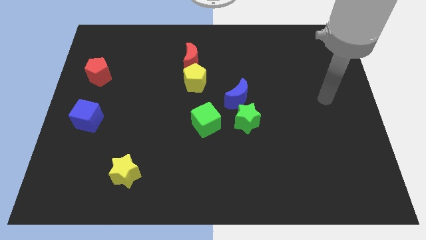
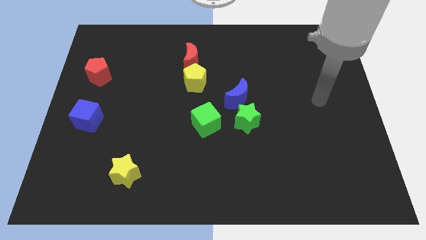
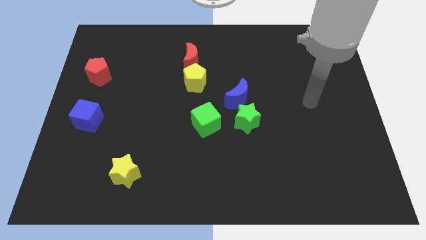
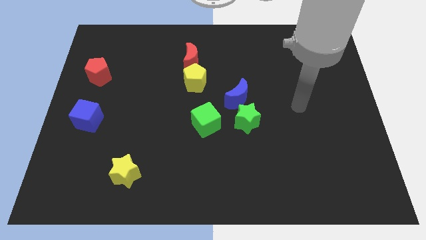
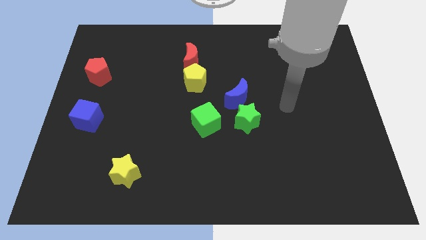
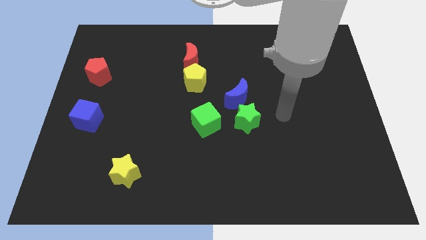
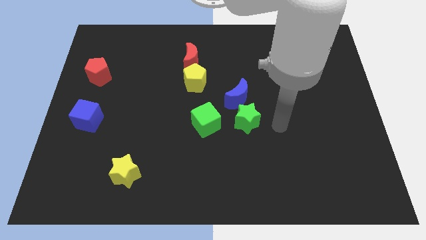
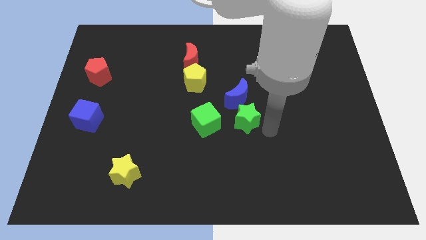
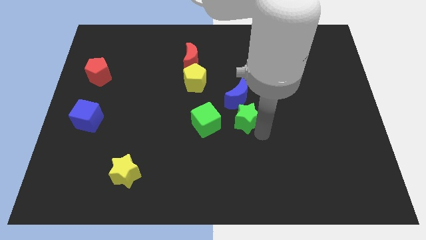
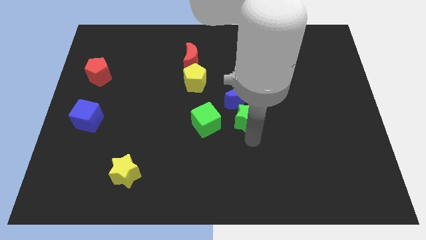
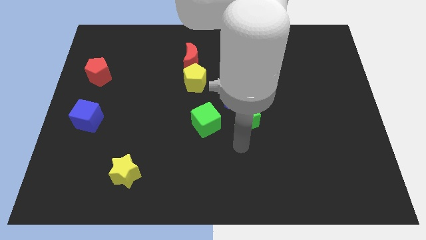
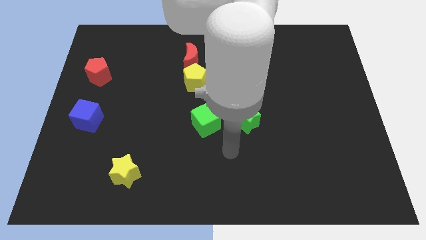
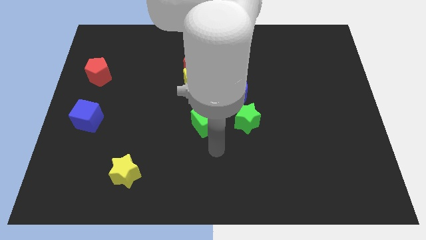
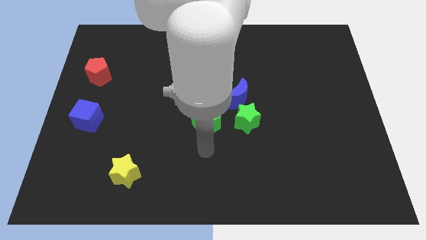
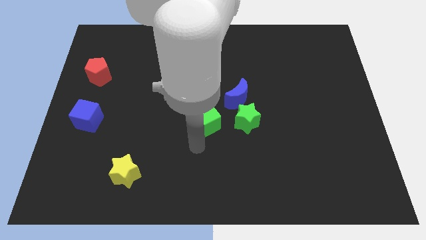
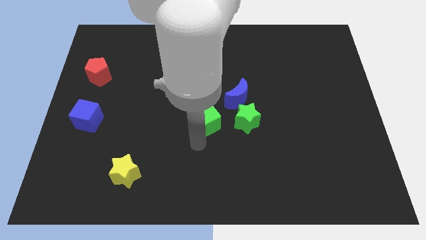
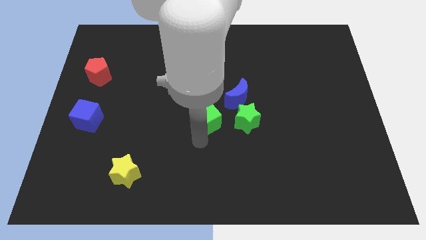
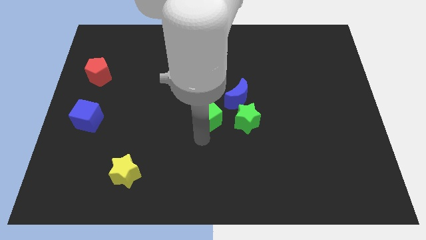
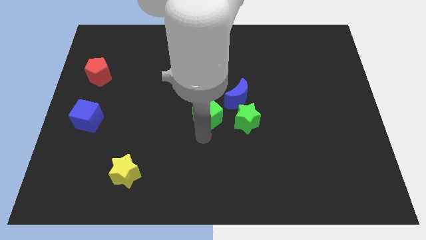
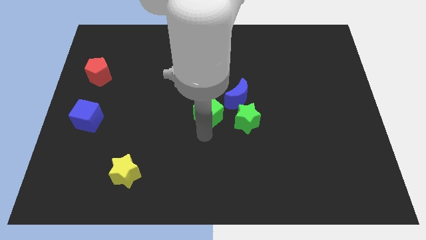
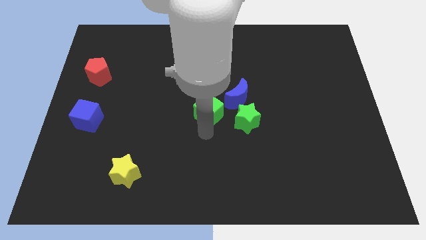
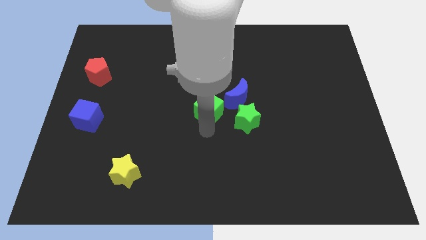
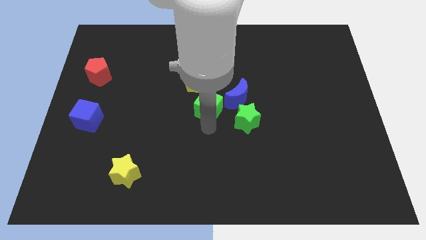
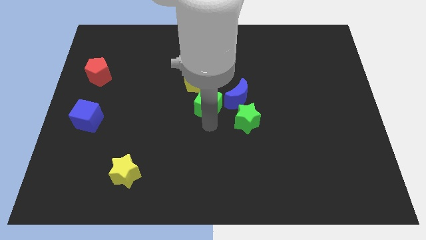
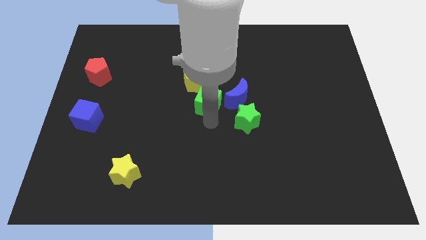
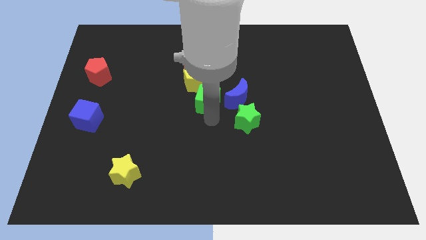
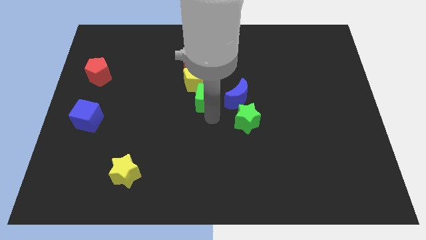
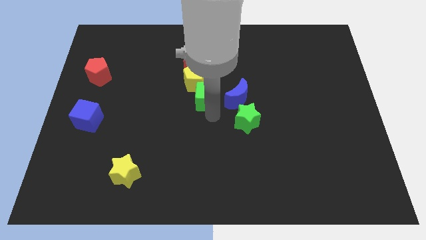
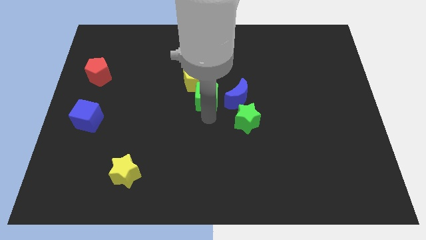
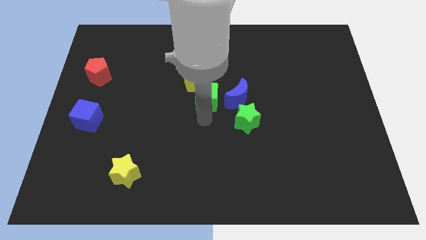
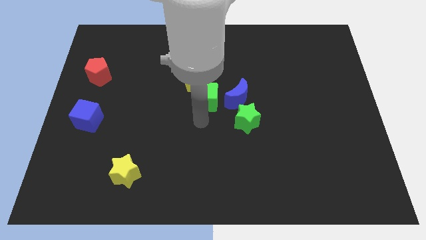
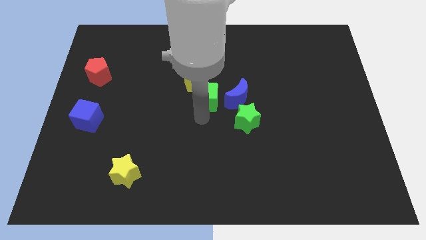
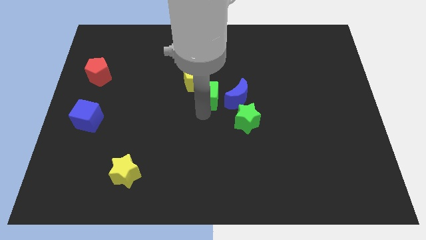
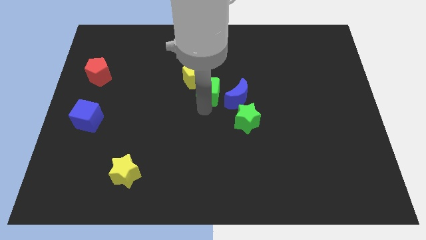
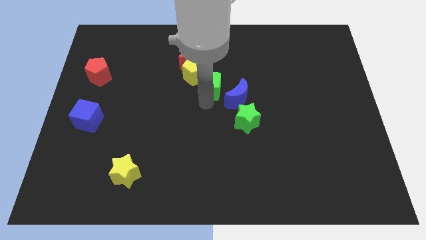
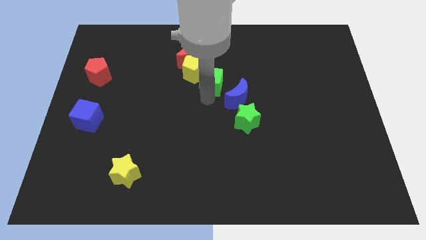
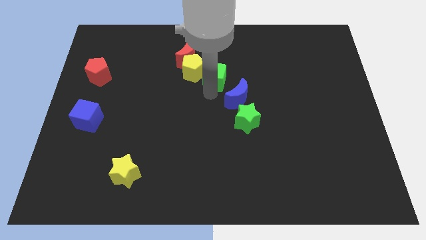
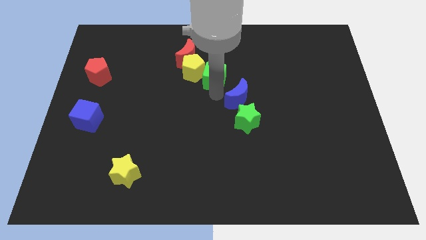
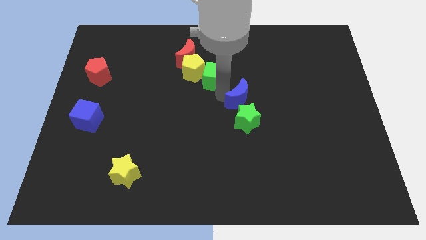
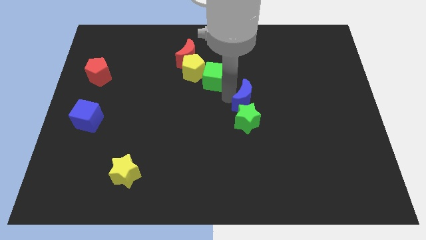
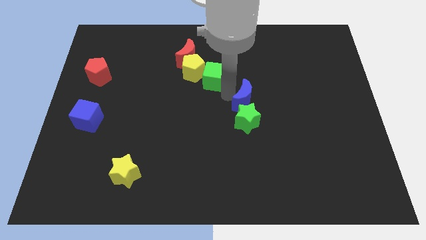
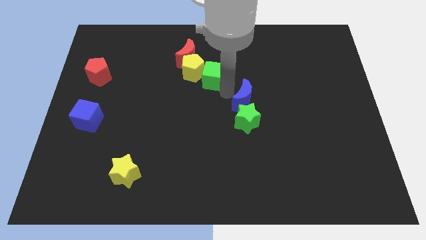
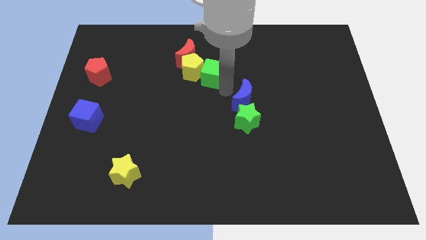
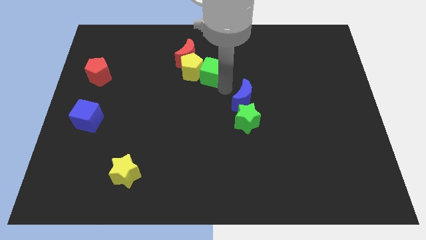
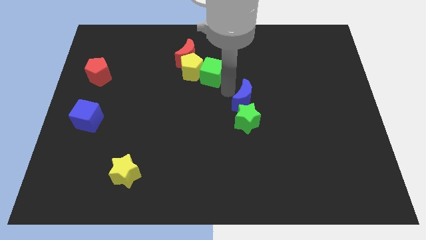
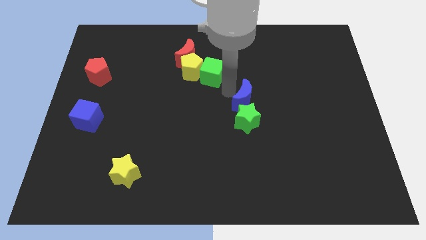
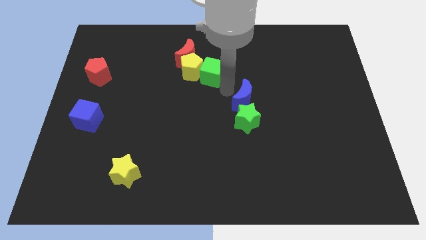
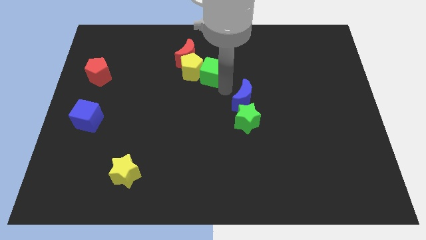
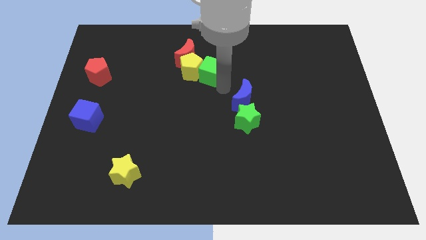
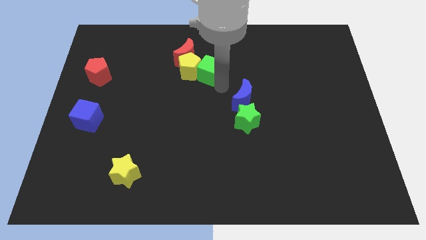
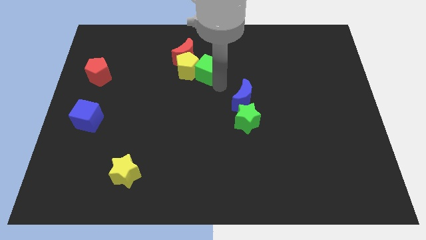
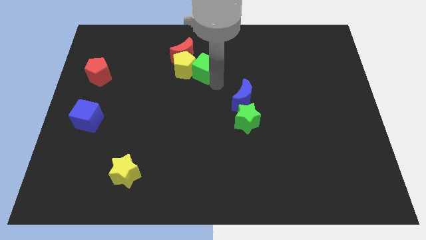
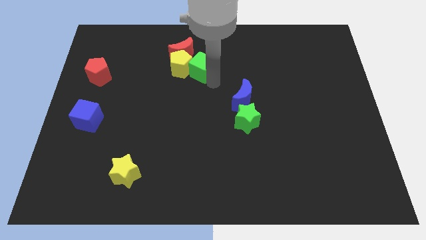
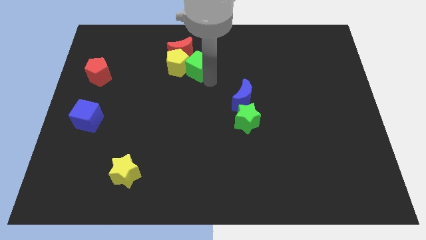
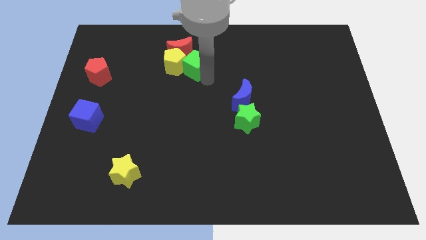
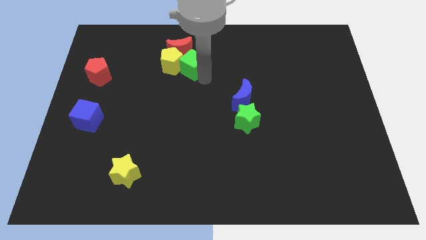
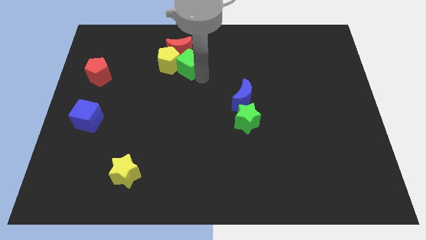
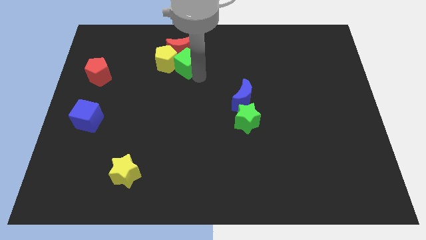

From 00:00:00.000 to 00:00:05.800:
push the green cube next to the red moon
